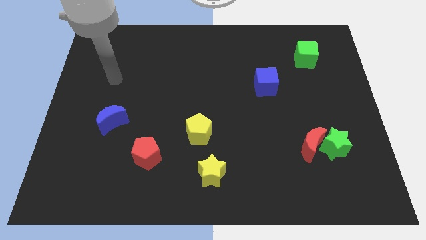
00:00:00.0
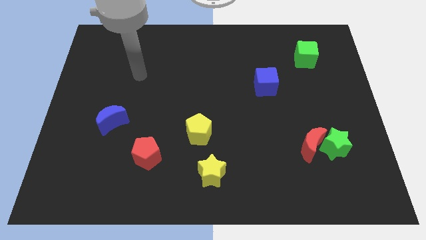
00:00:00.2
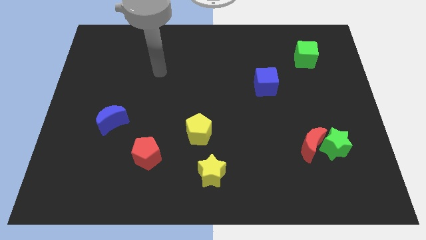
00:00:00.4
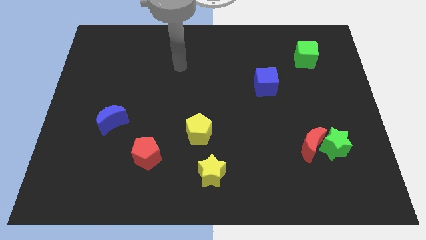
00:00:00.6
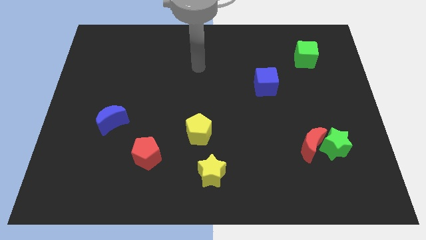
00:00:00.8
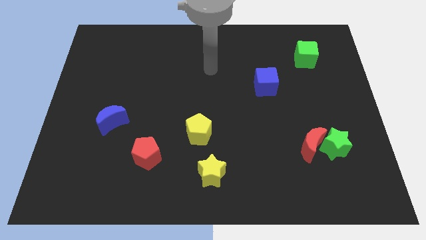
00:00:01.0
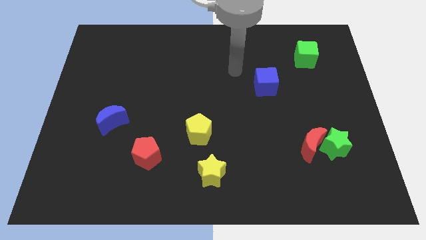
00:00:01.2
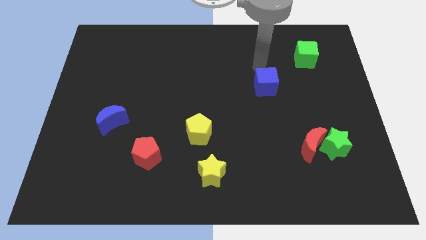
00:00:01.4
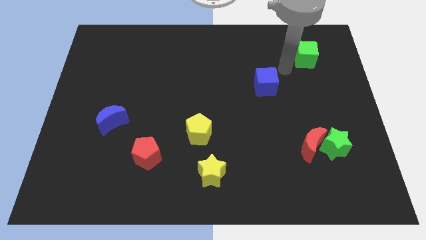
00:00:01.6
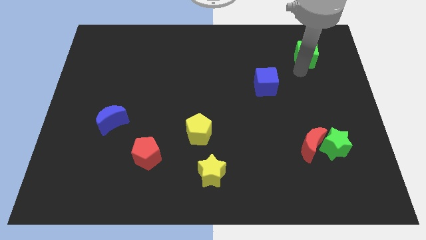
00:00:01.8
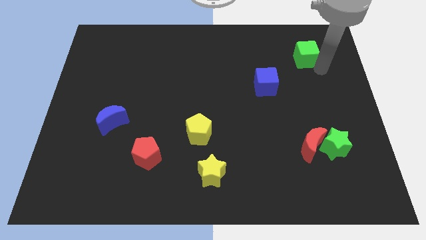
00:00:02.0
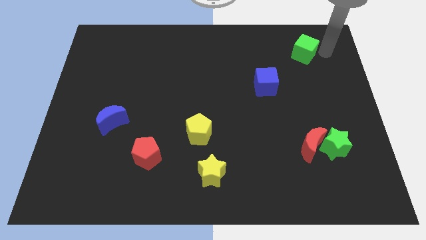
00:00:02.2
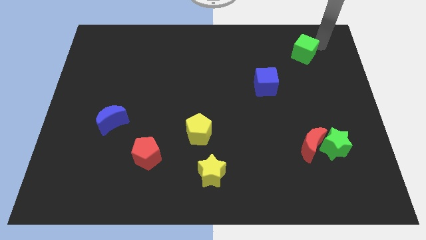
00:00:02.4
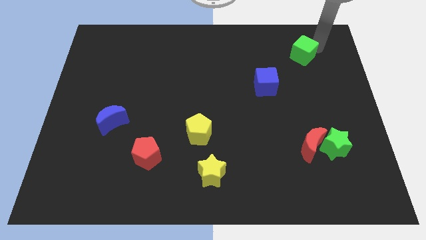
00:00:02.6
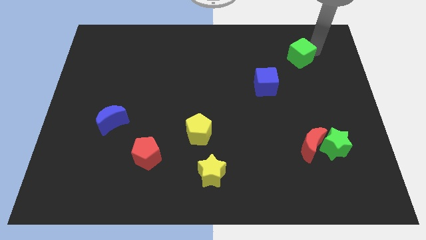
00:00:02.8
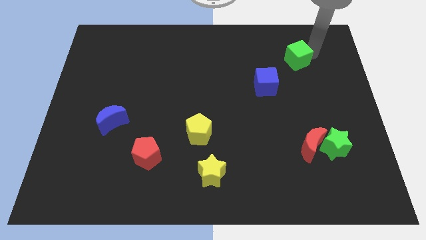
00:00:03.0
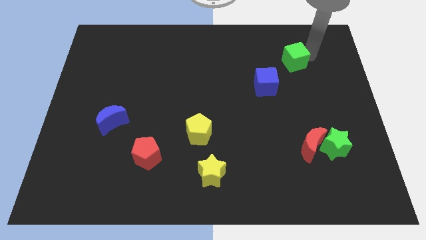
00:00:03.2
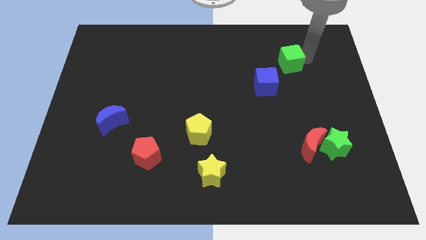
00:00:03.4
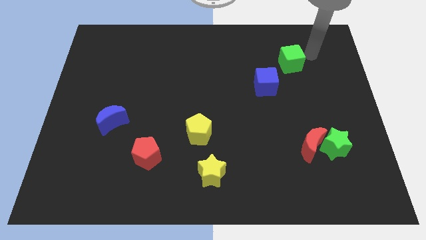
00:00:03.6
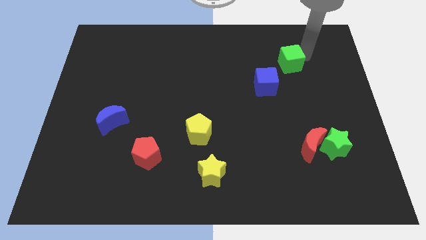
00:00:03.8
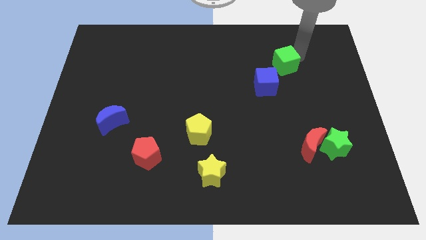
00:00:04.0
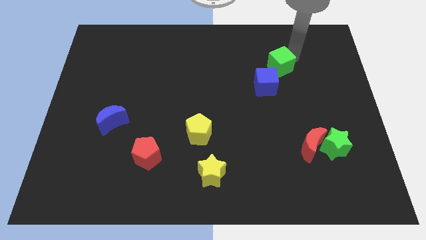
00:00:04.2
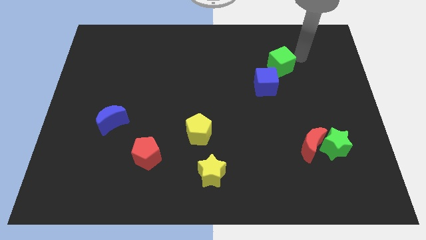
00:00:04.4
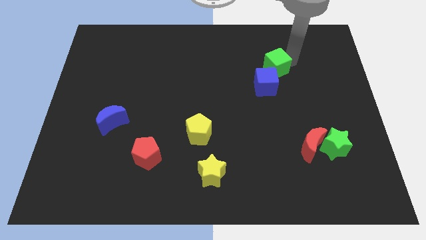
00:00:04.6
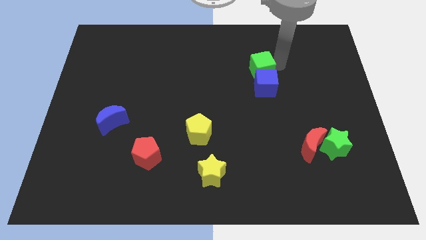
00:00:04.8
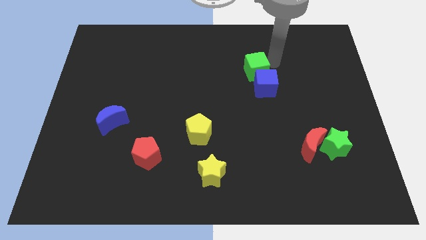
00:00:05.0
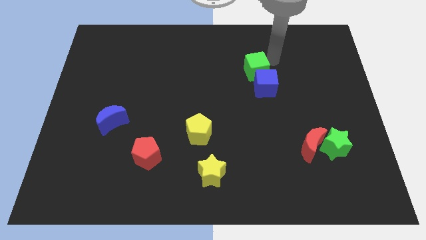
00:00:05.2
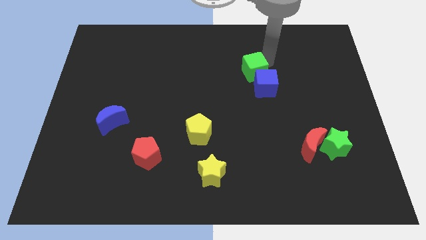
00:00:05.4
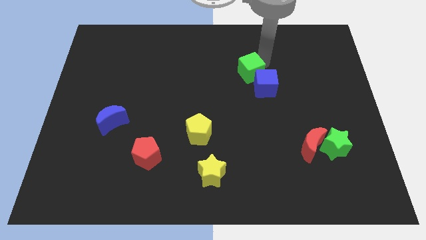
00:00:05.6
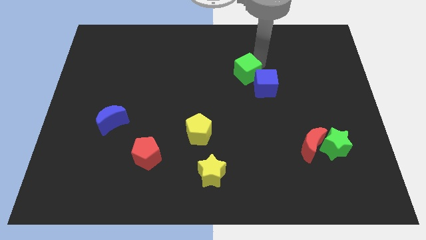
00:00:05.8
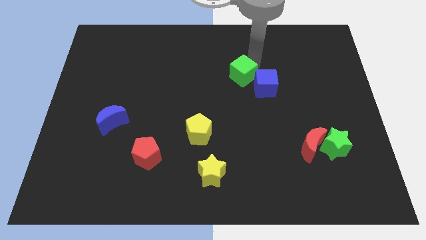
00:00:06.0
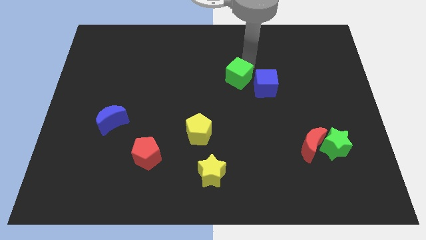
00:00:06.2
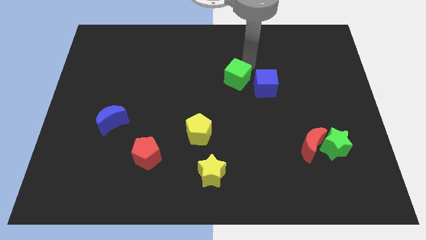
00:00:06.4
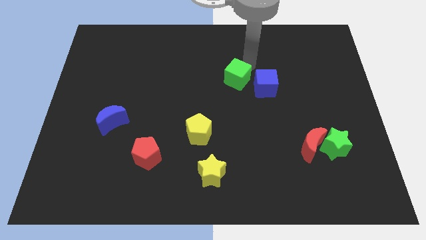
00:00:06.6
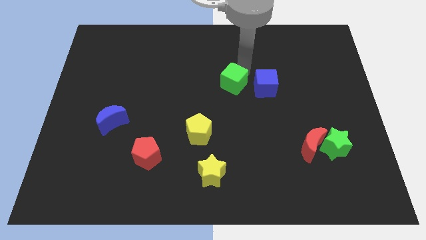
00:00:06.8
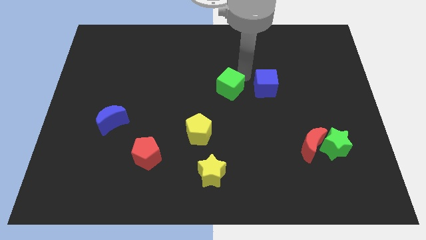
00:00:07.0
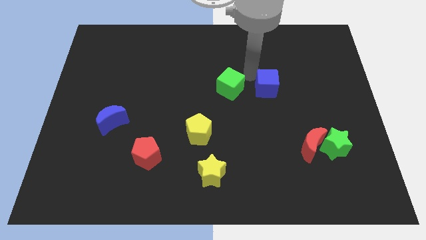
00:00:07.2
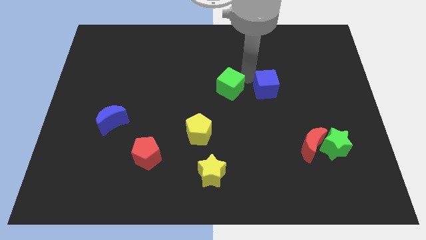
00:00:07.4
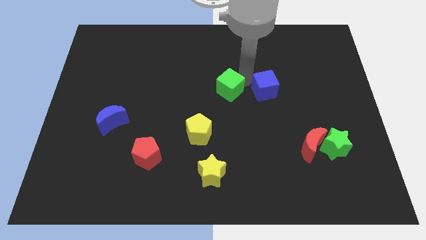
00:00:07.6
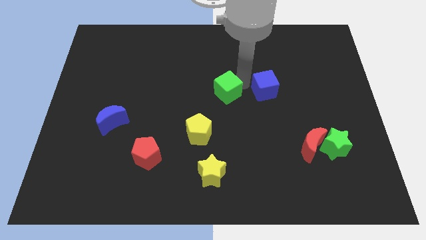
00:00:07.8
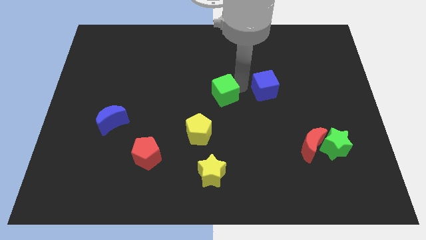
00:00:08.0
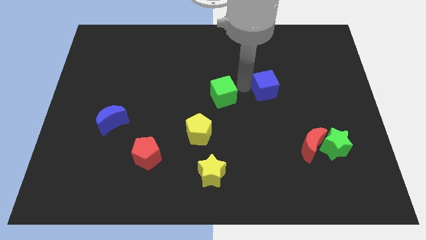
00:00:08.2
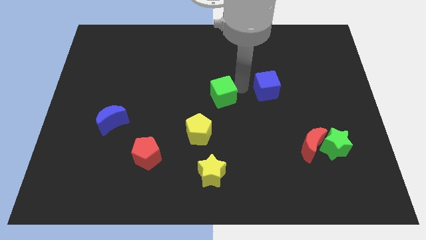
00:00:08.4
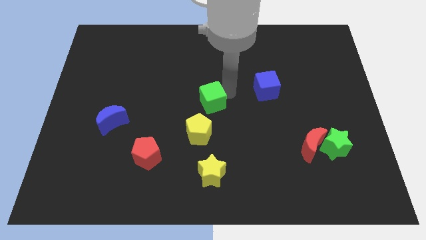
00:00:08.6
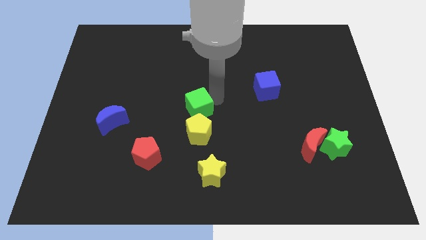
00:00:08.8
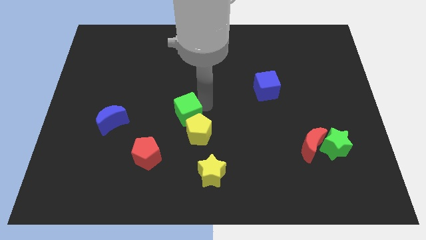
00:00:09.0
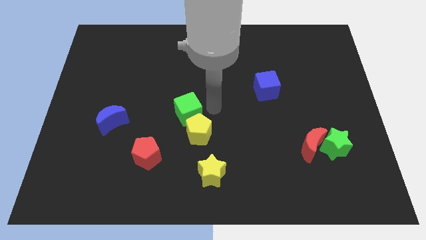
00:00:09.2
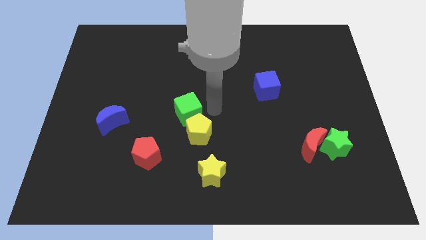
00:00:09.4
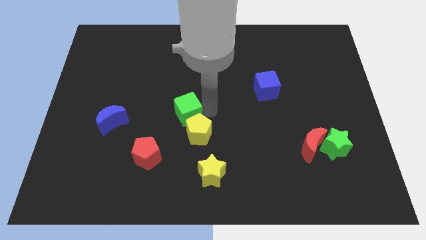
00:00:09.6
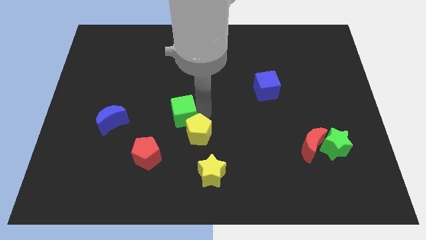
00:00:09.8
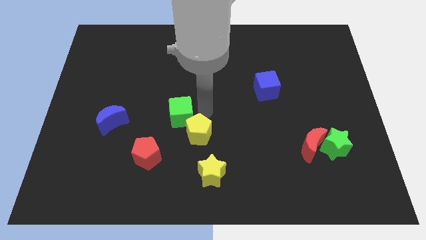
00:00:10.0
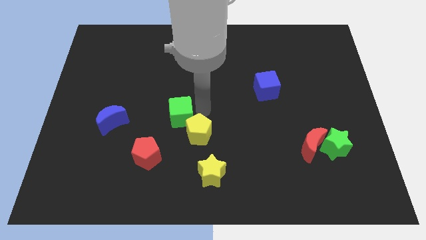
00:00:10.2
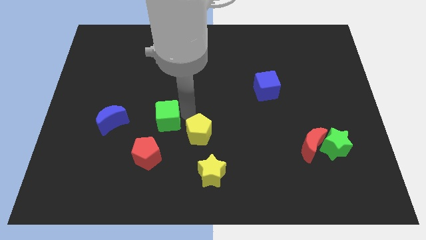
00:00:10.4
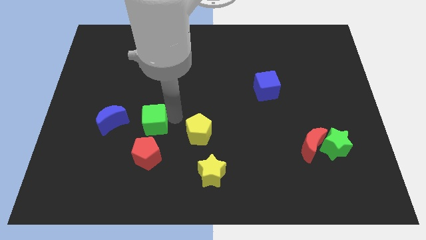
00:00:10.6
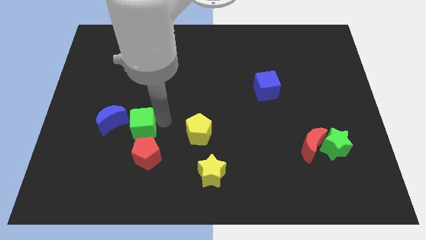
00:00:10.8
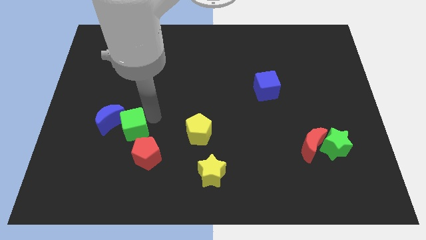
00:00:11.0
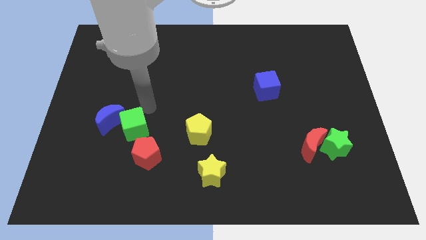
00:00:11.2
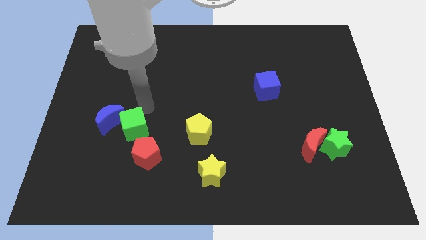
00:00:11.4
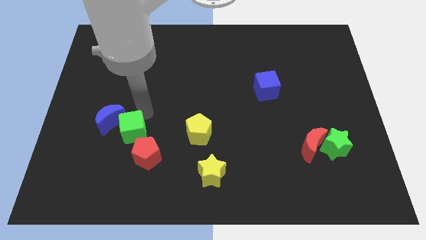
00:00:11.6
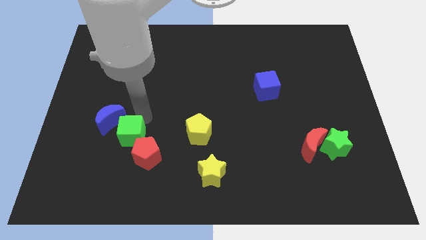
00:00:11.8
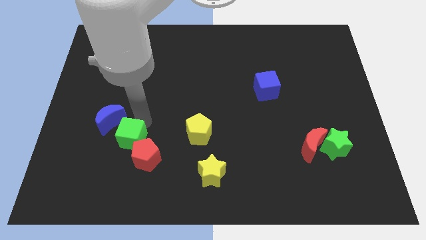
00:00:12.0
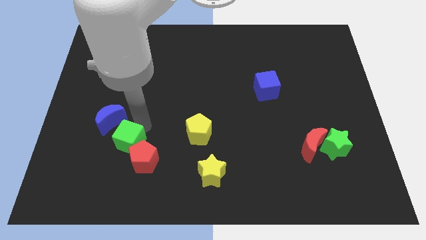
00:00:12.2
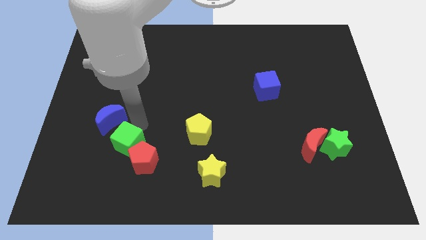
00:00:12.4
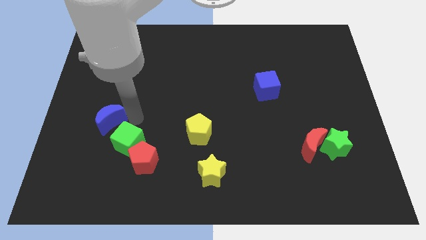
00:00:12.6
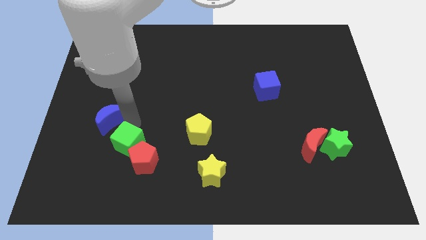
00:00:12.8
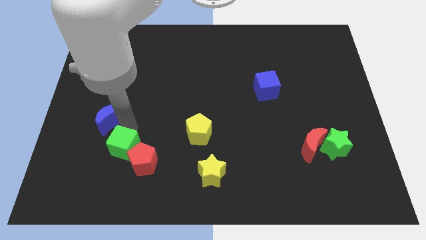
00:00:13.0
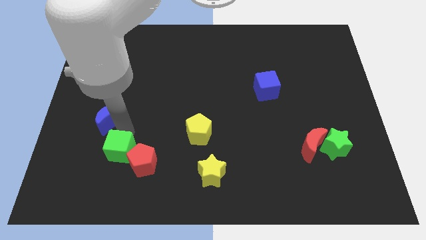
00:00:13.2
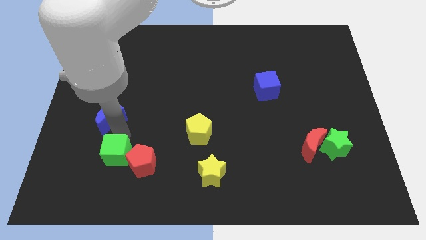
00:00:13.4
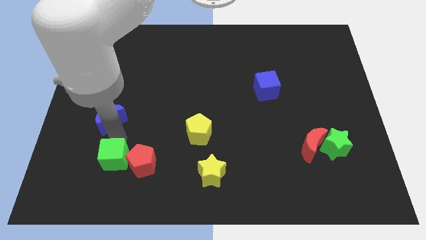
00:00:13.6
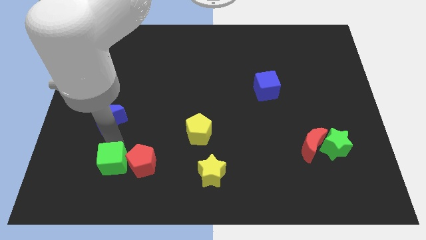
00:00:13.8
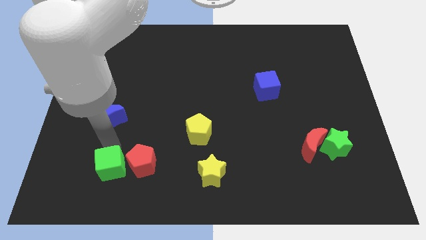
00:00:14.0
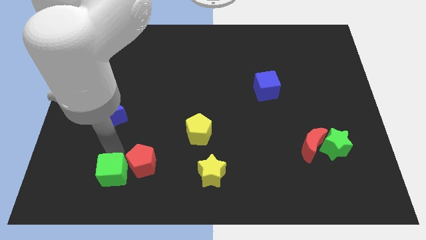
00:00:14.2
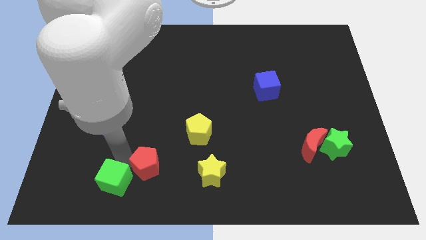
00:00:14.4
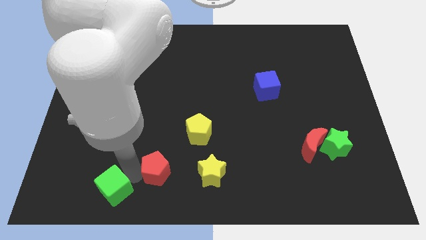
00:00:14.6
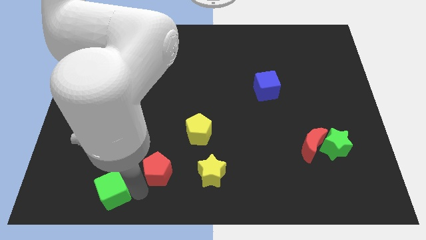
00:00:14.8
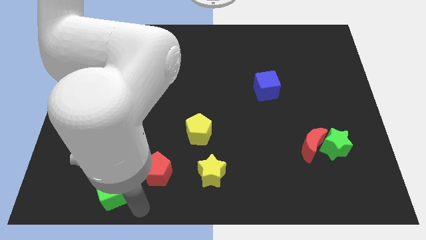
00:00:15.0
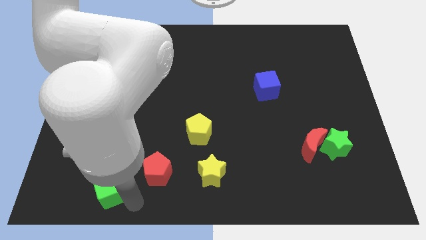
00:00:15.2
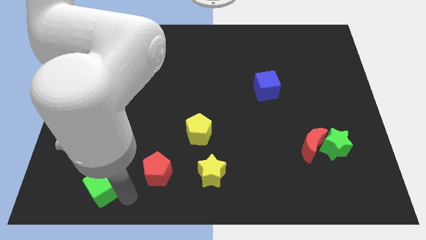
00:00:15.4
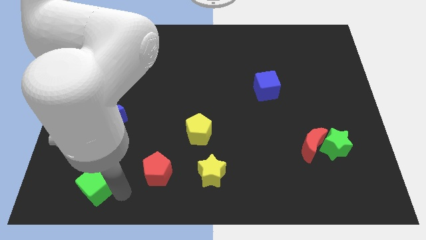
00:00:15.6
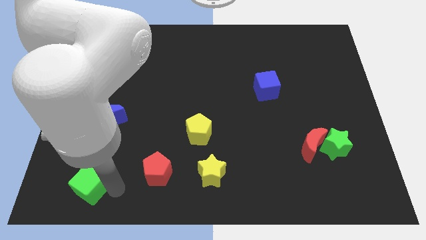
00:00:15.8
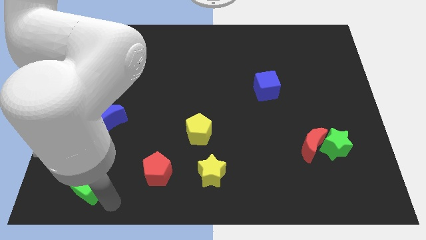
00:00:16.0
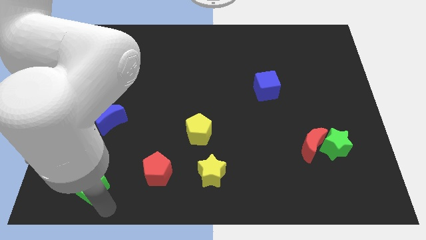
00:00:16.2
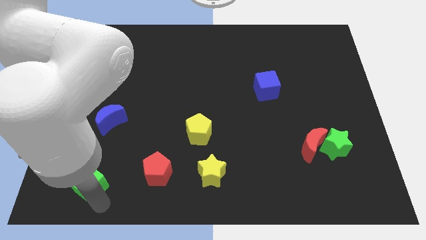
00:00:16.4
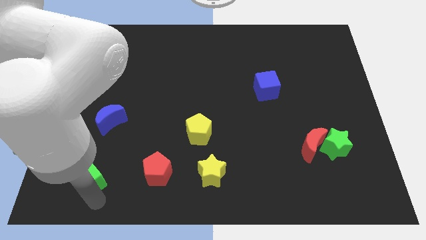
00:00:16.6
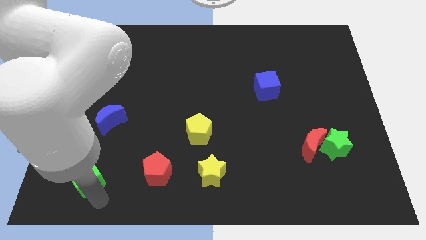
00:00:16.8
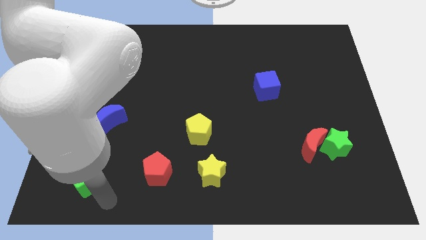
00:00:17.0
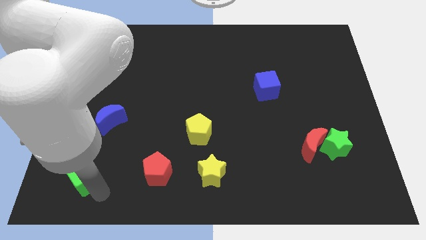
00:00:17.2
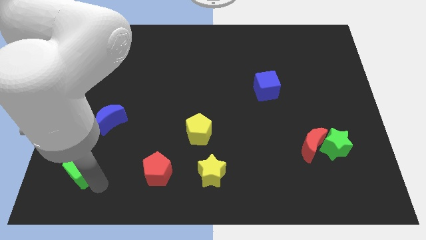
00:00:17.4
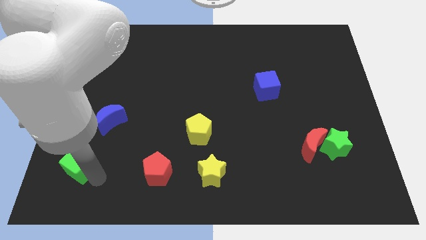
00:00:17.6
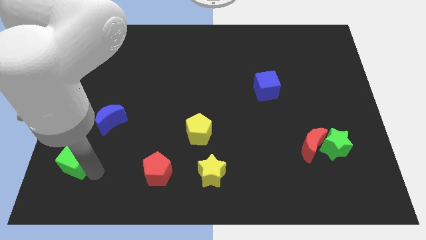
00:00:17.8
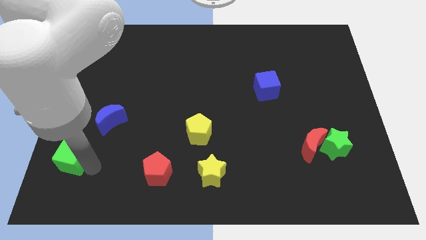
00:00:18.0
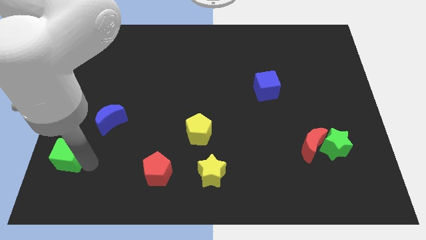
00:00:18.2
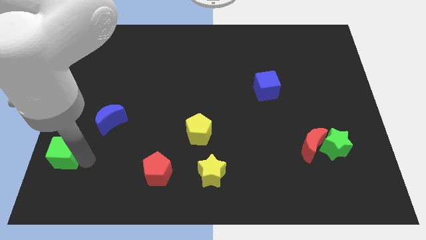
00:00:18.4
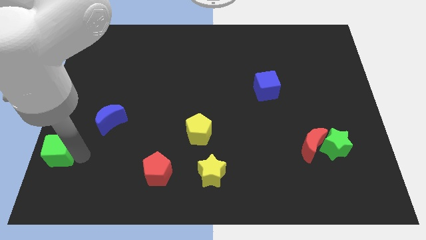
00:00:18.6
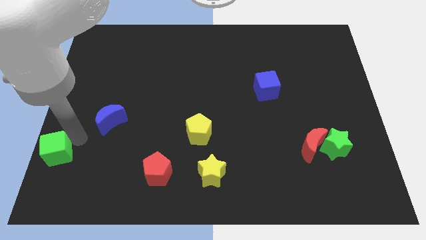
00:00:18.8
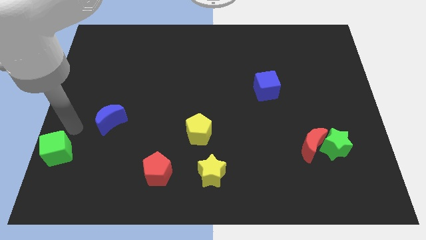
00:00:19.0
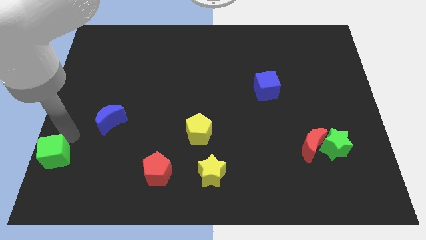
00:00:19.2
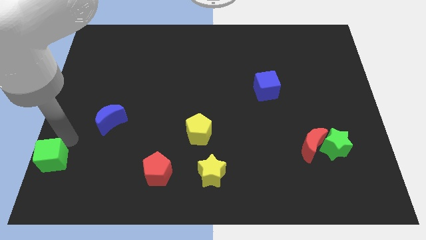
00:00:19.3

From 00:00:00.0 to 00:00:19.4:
slide the green cube to the bottom left of the board
